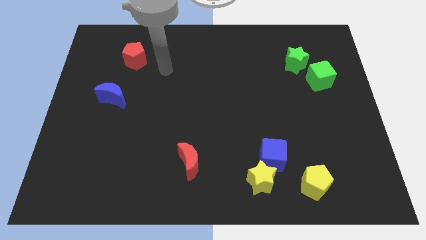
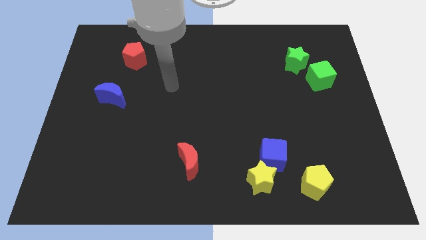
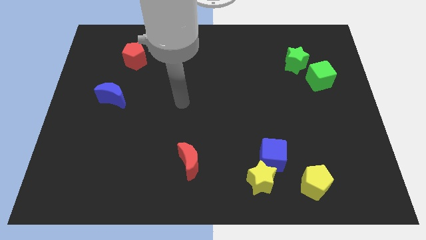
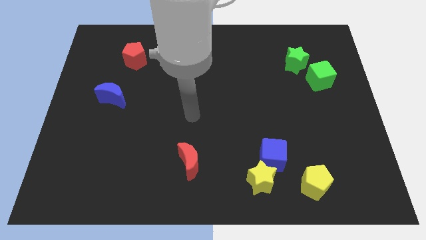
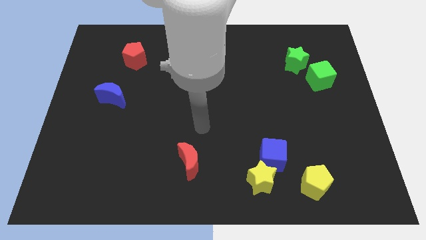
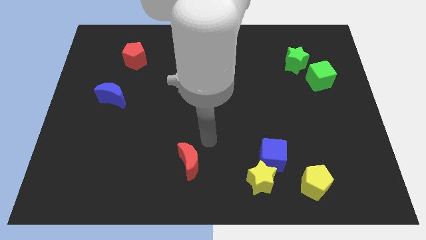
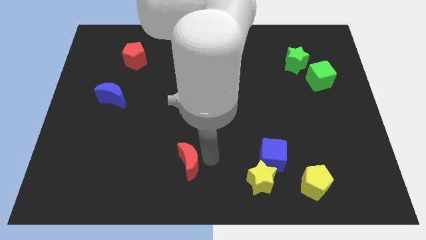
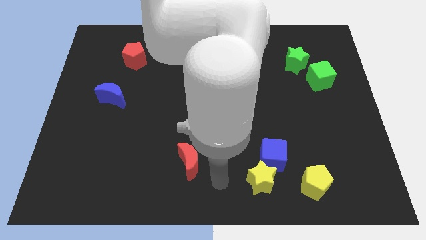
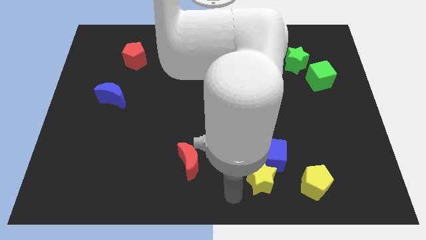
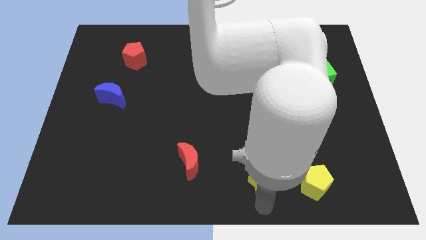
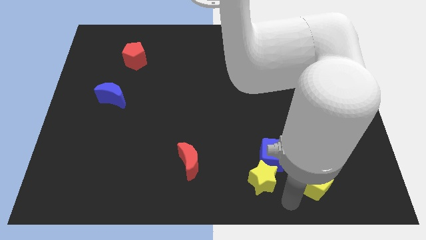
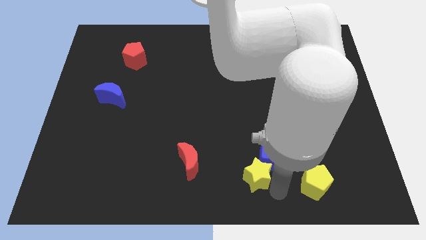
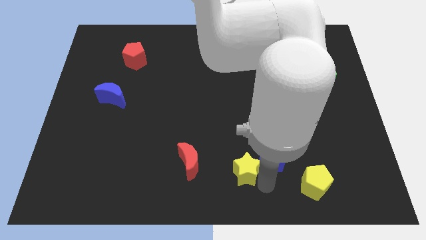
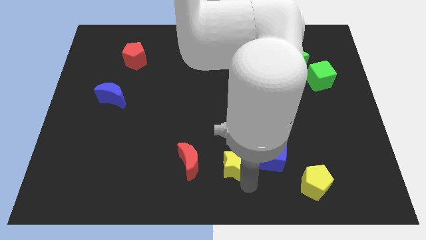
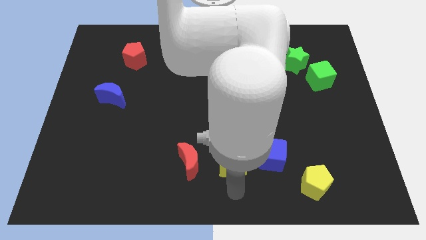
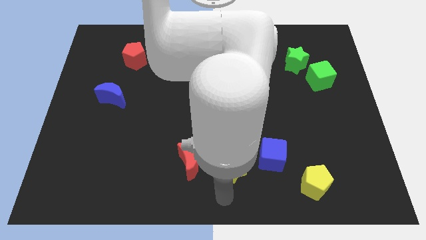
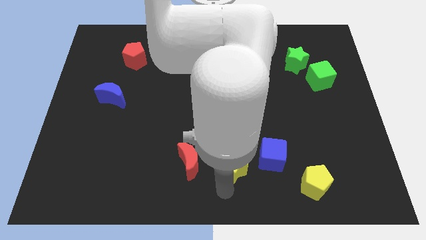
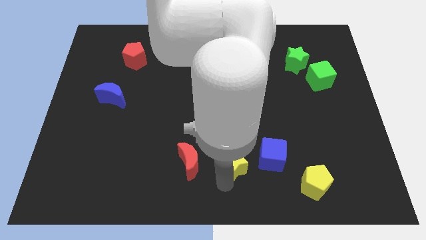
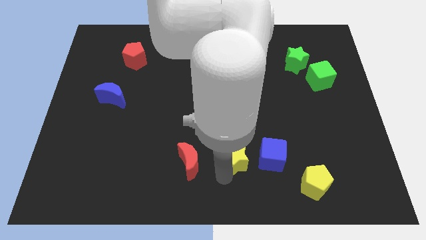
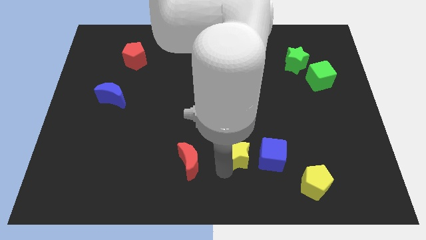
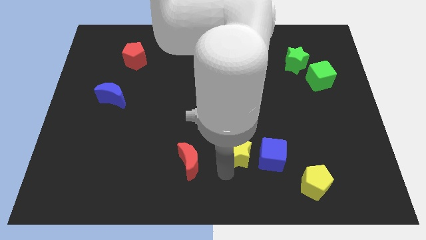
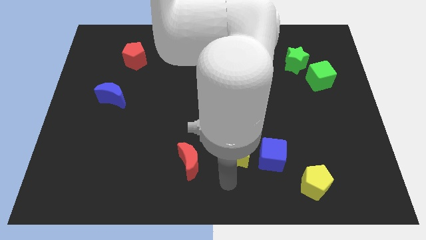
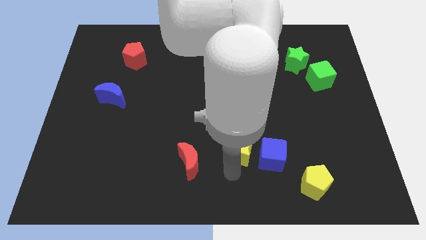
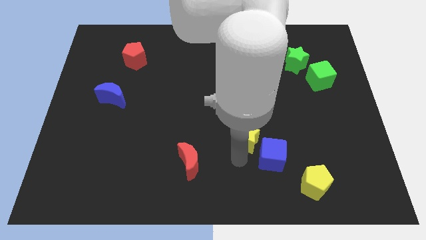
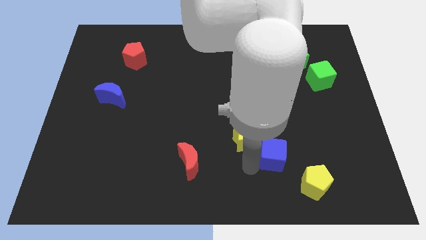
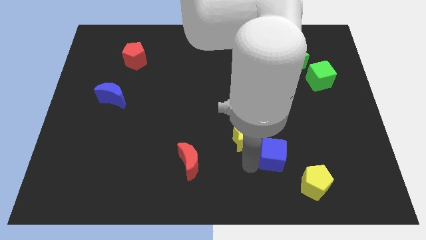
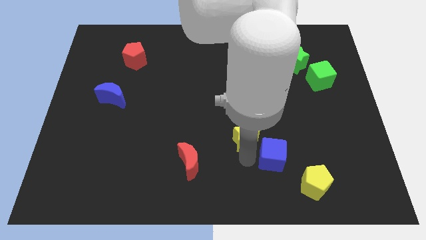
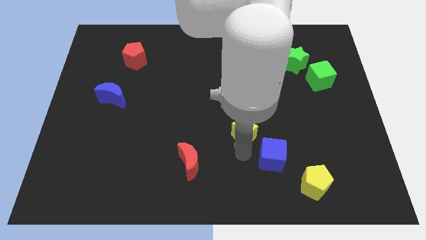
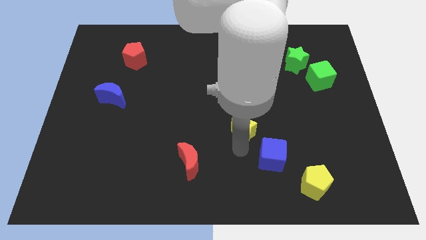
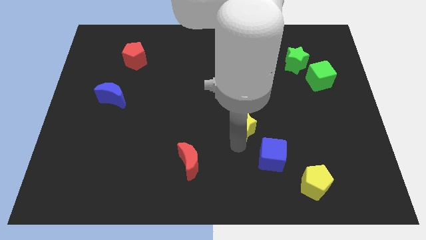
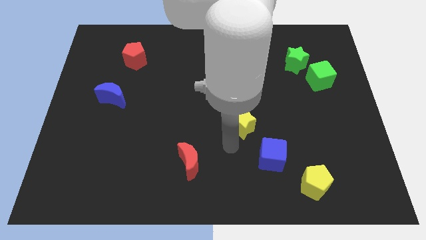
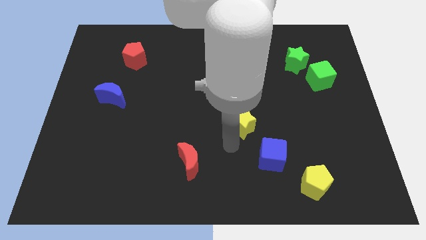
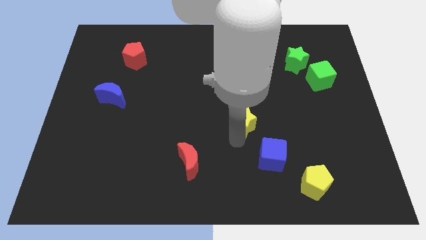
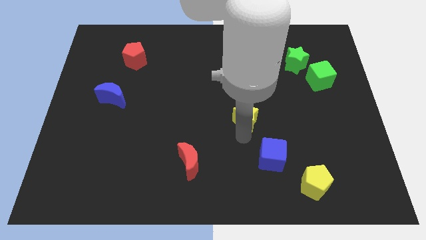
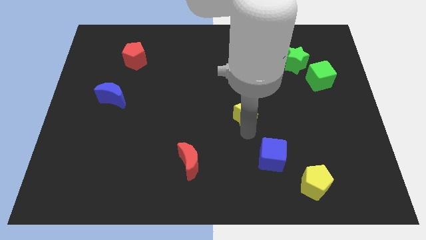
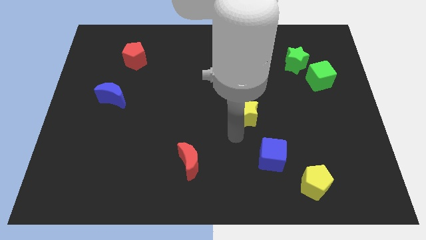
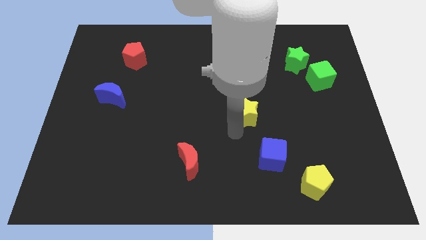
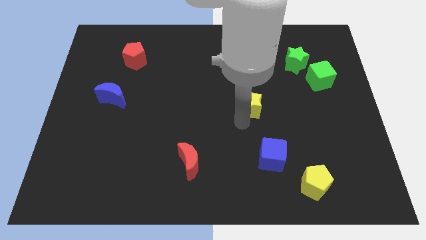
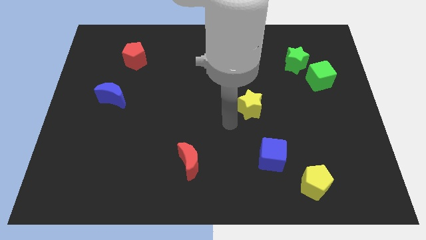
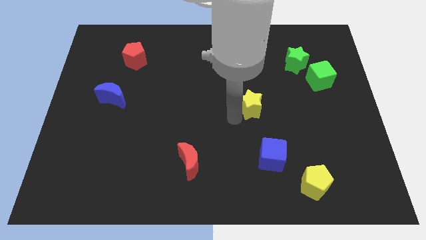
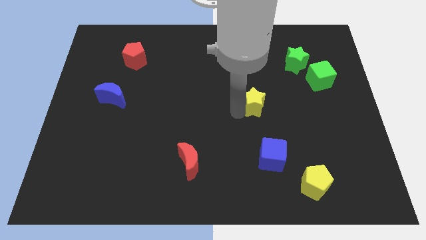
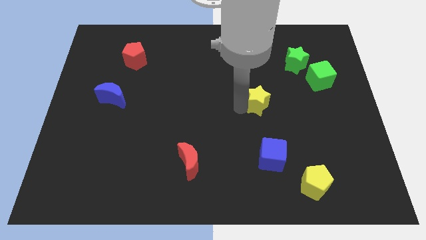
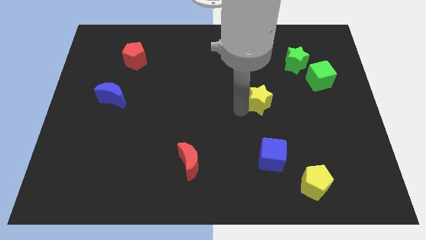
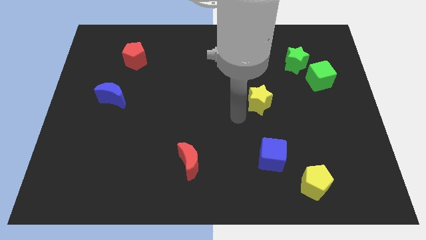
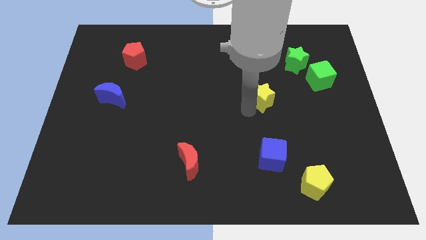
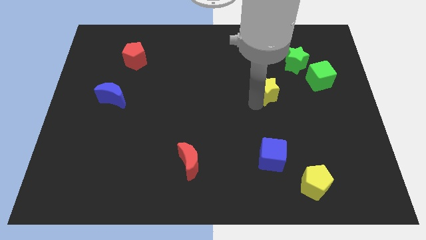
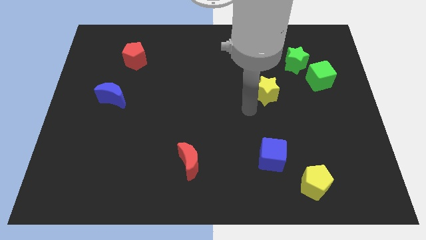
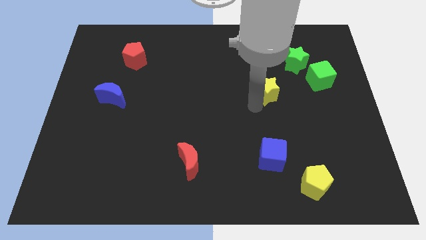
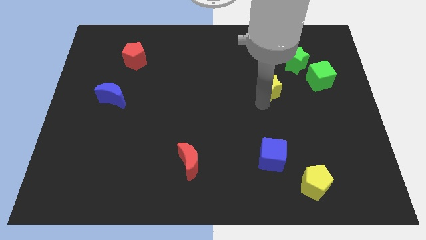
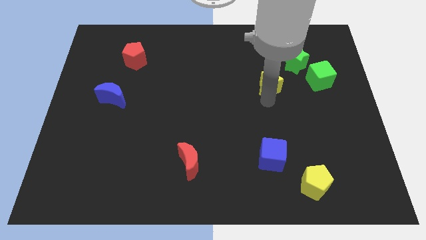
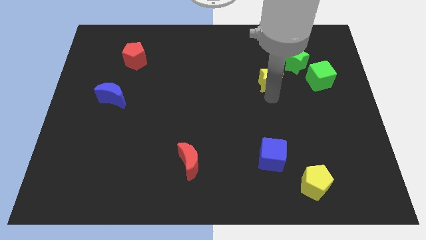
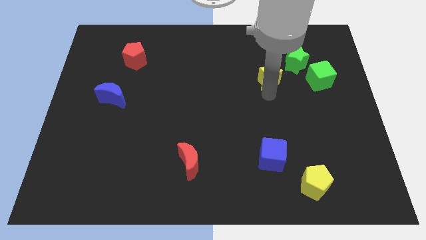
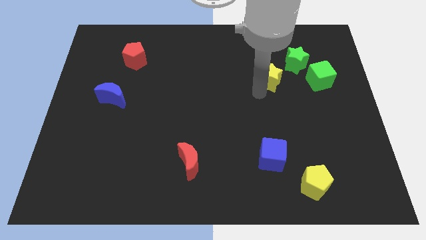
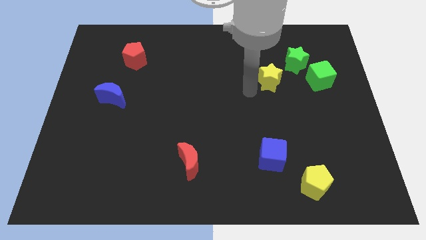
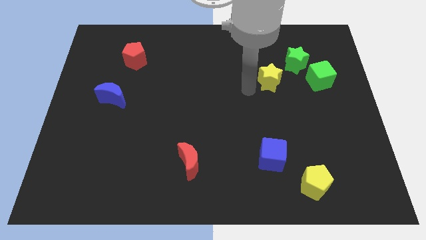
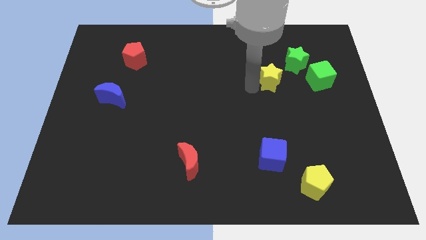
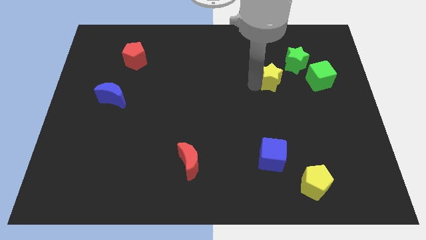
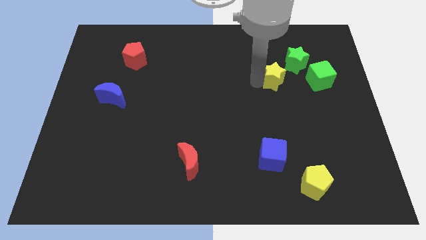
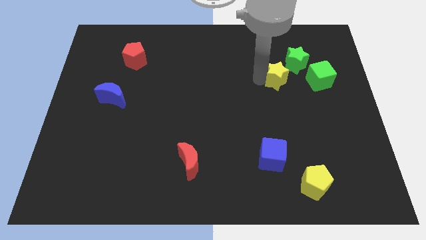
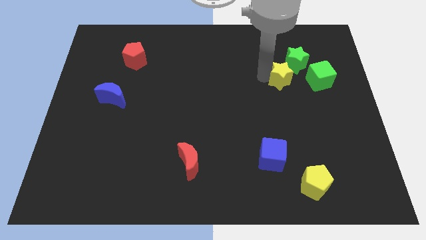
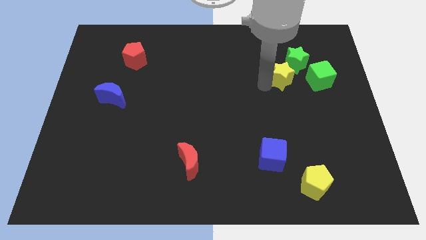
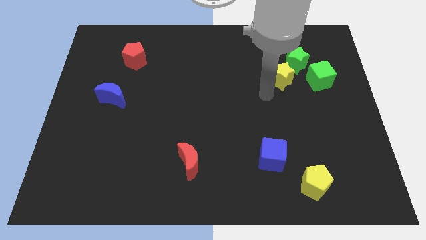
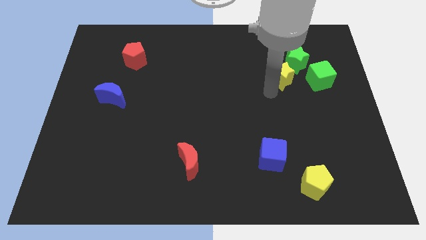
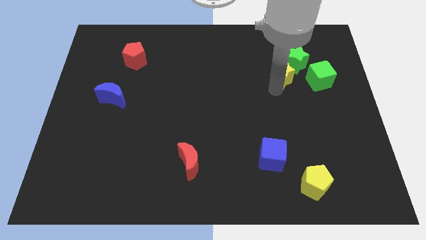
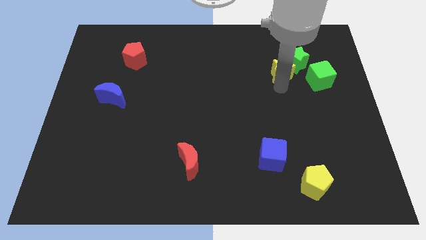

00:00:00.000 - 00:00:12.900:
put the yellow star next to the green star

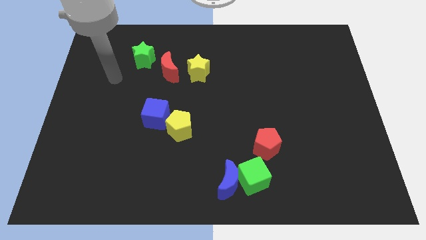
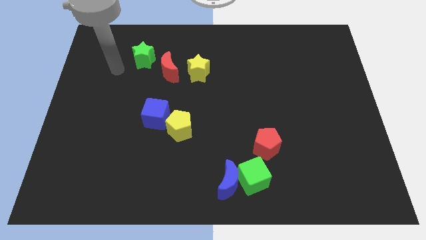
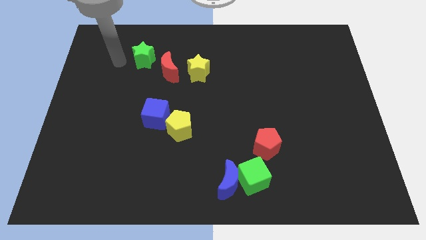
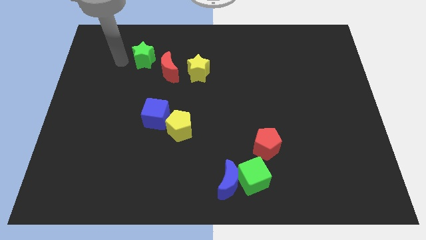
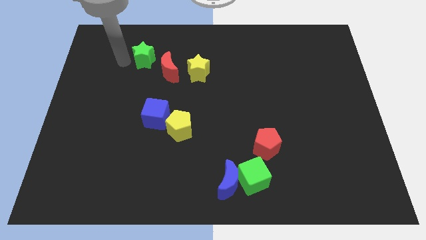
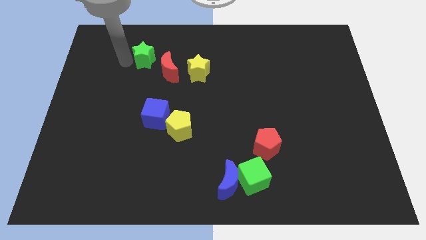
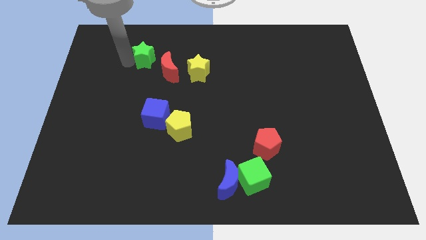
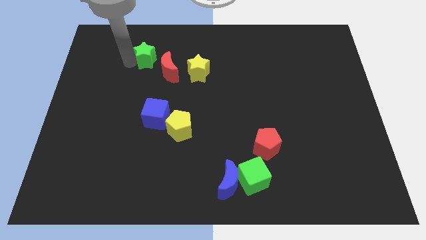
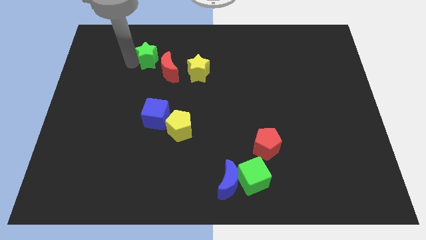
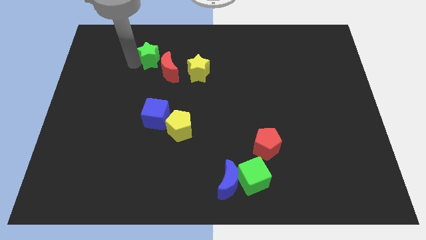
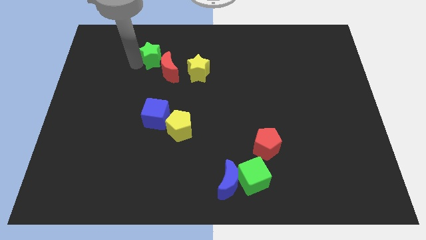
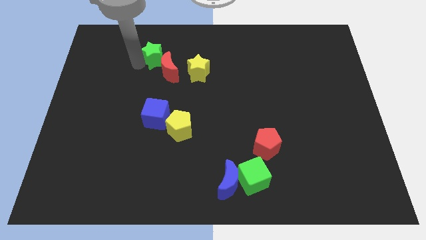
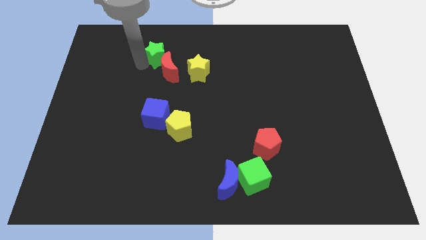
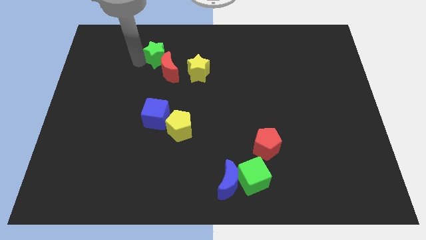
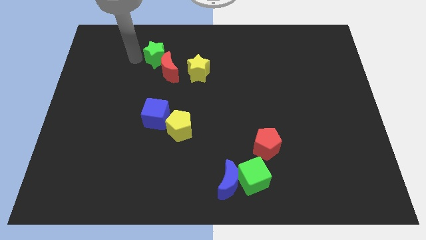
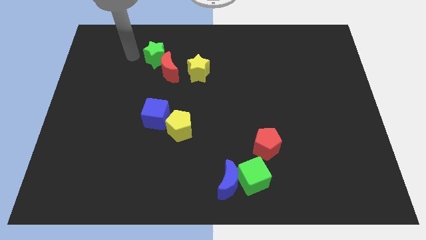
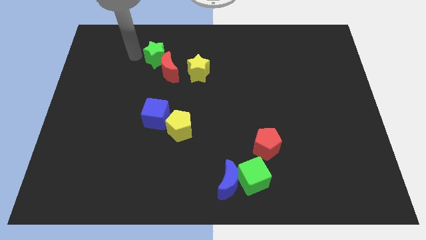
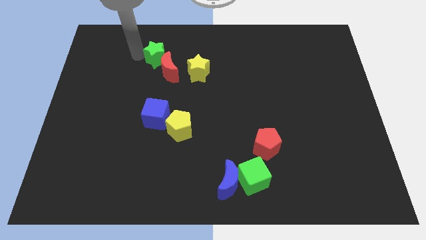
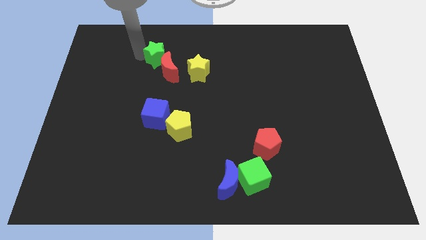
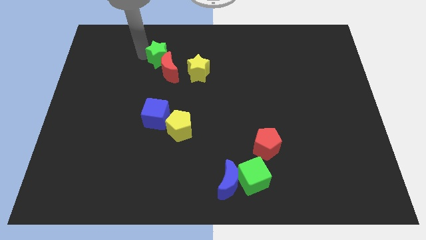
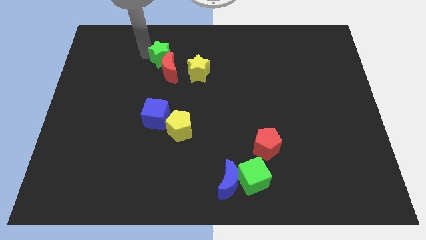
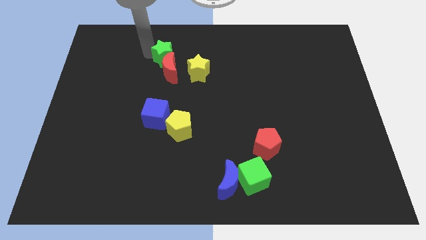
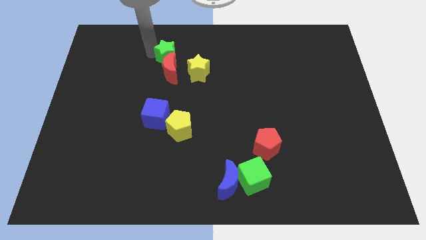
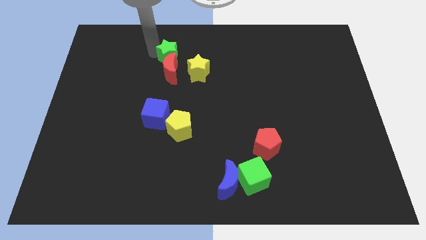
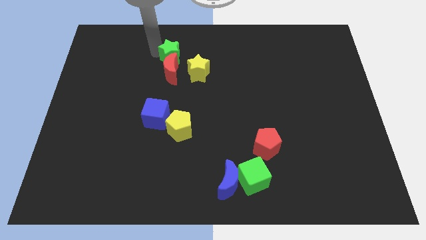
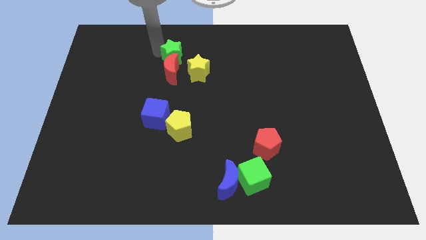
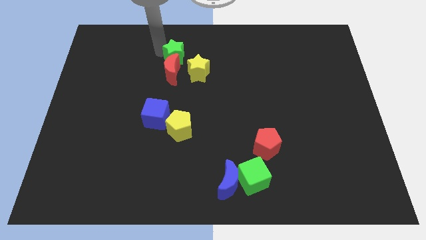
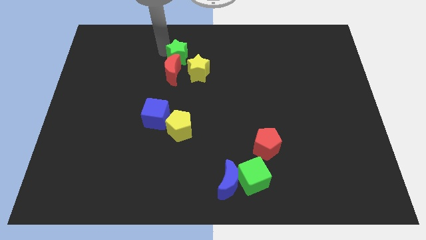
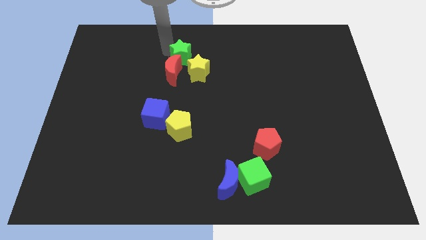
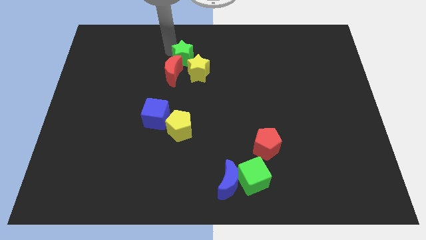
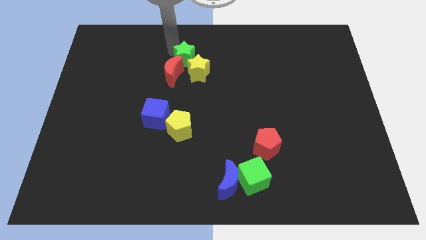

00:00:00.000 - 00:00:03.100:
move the green star close to the yellow star
